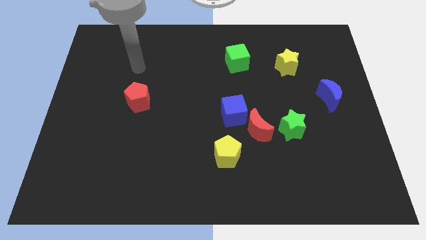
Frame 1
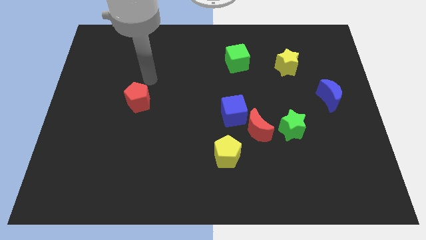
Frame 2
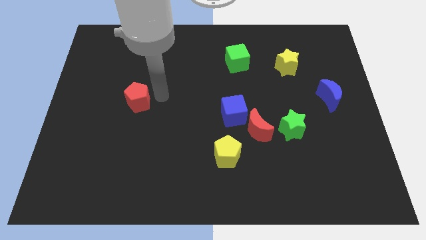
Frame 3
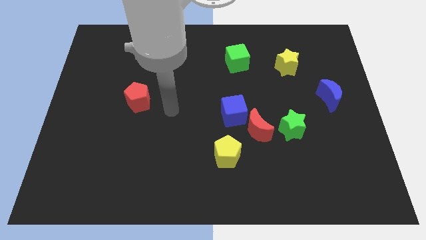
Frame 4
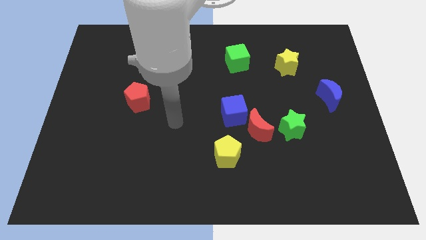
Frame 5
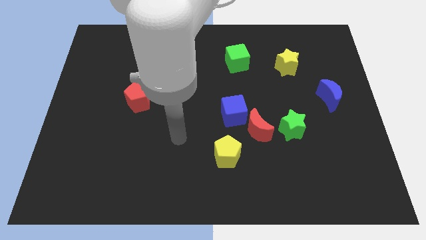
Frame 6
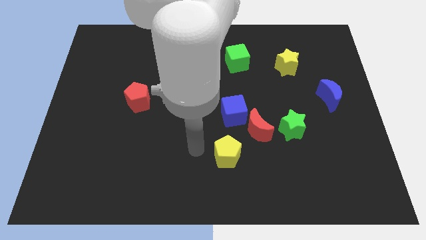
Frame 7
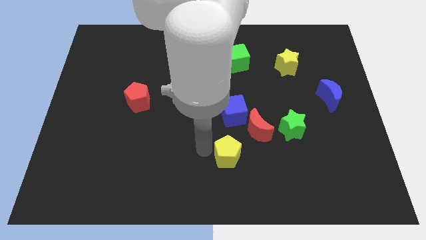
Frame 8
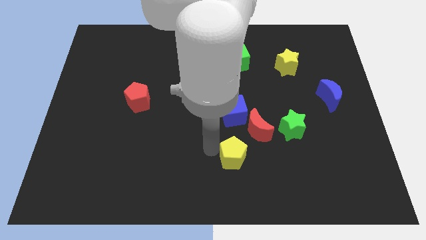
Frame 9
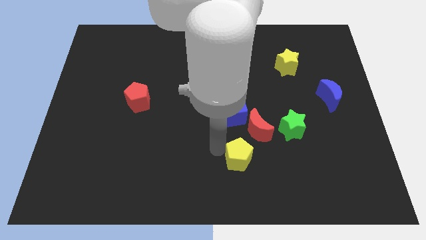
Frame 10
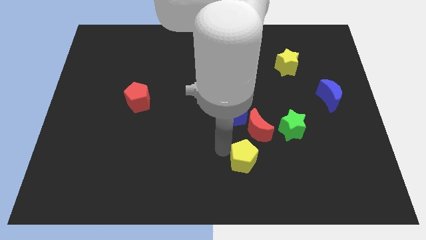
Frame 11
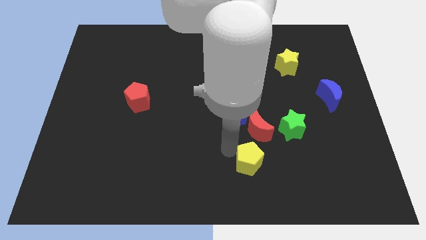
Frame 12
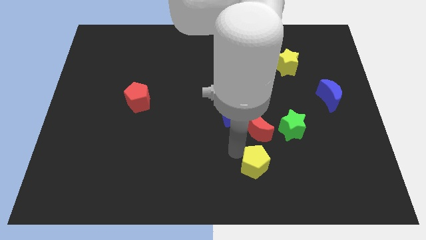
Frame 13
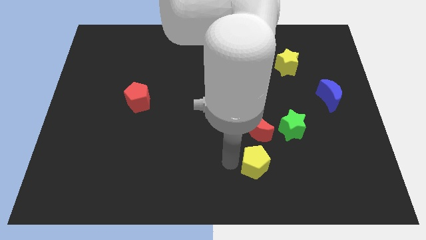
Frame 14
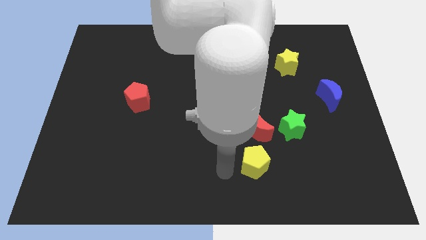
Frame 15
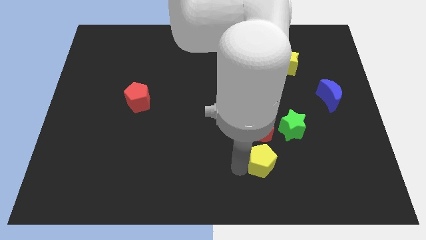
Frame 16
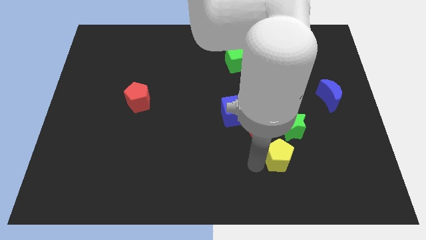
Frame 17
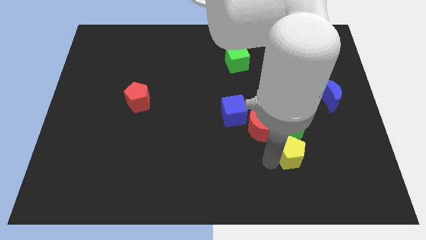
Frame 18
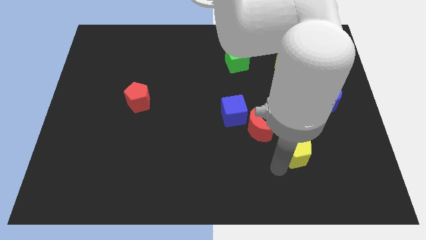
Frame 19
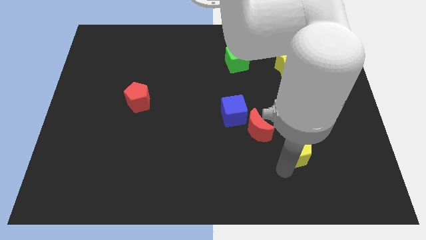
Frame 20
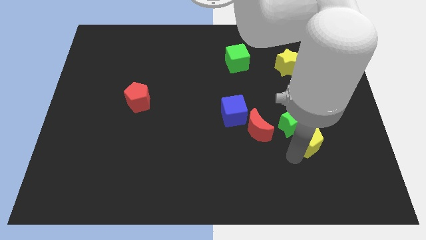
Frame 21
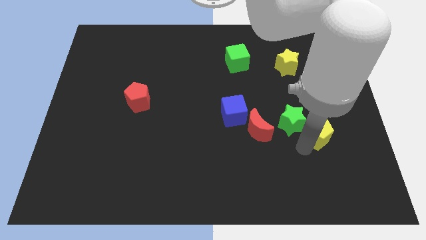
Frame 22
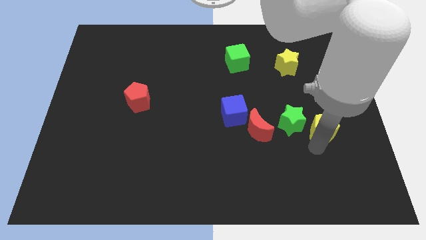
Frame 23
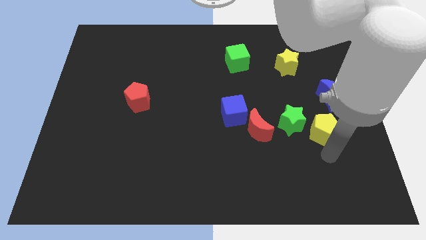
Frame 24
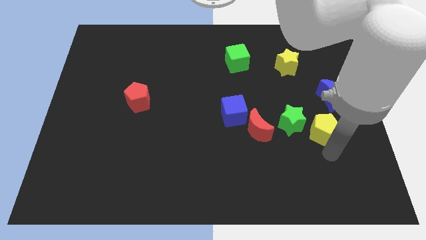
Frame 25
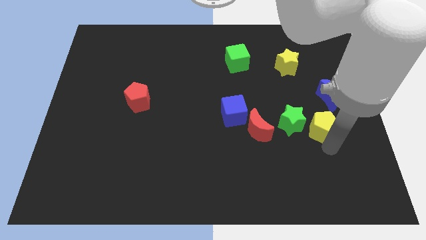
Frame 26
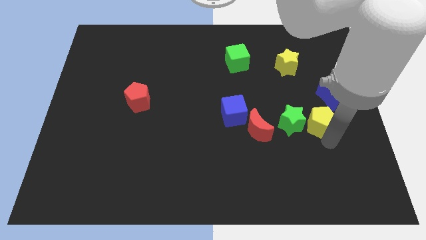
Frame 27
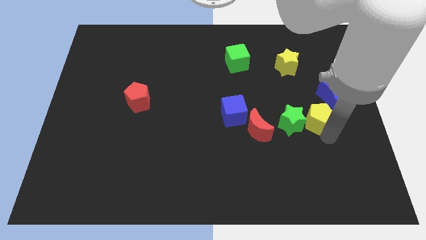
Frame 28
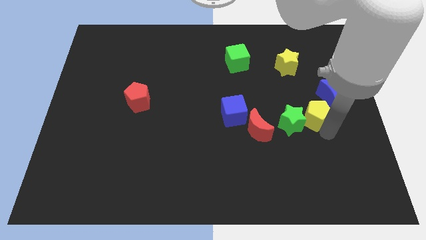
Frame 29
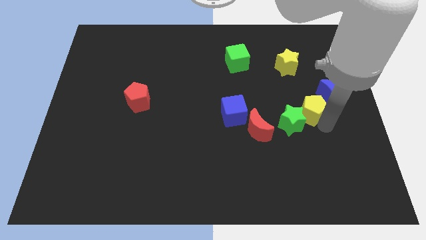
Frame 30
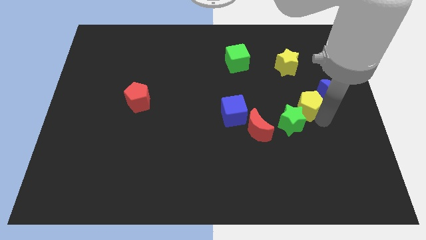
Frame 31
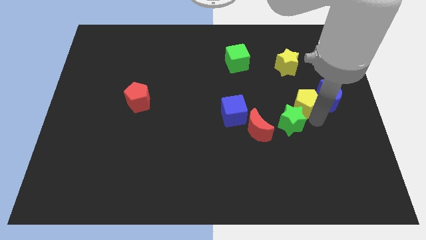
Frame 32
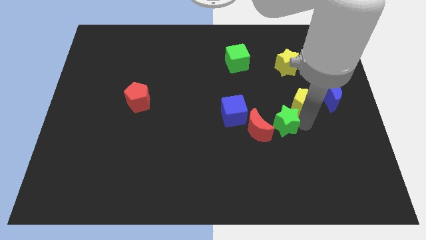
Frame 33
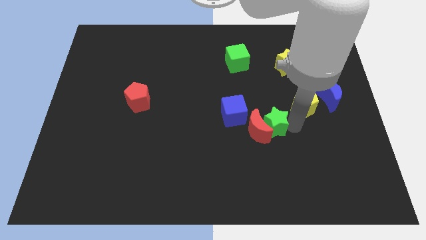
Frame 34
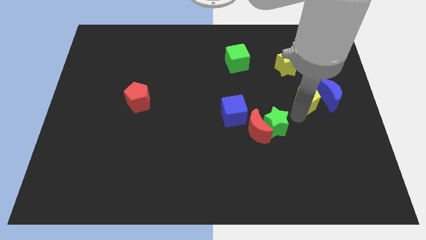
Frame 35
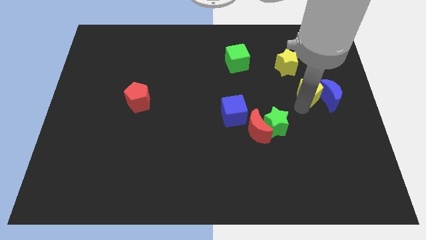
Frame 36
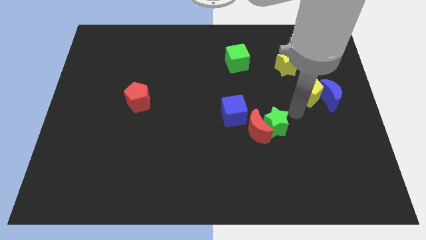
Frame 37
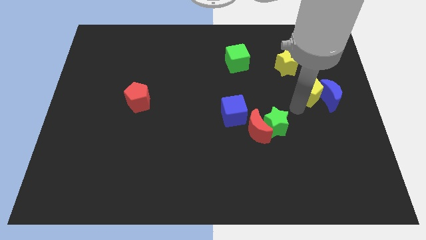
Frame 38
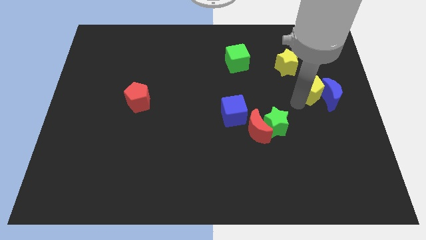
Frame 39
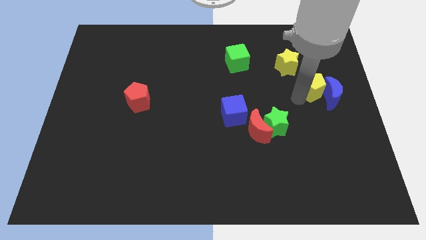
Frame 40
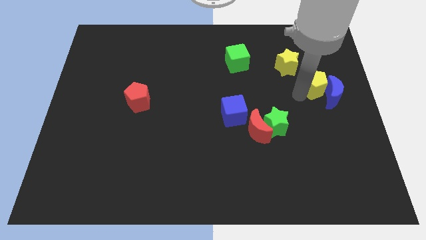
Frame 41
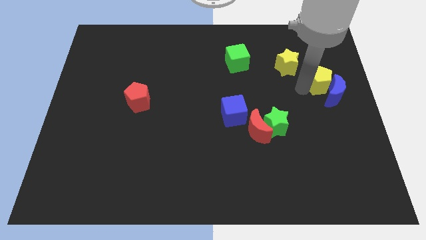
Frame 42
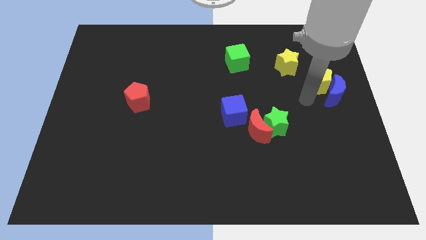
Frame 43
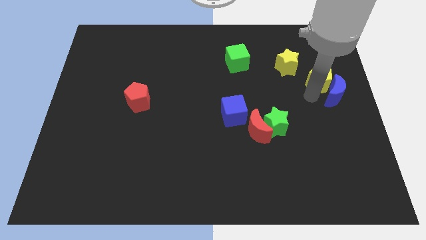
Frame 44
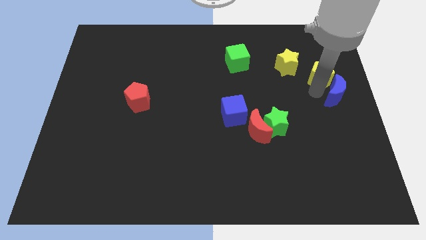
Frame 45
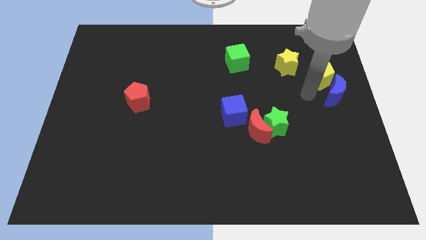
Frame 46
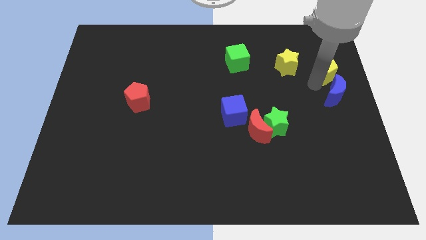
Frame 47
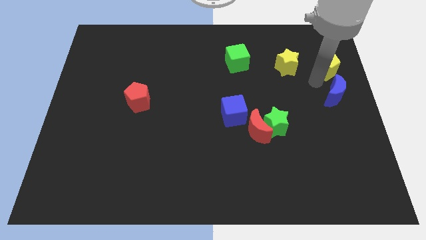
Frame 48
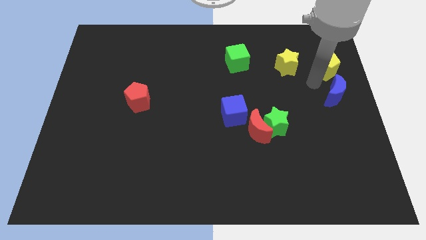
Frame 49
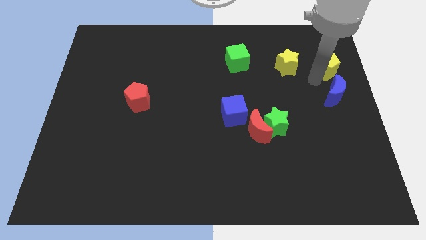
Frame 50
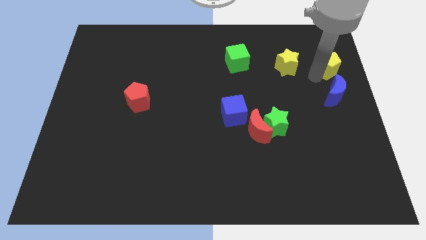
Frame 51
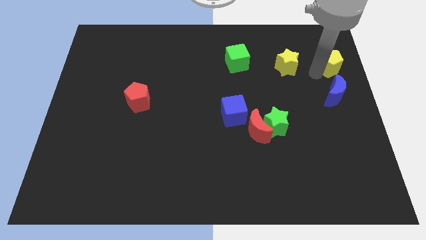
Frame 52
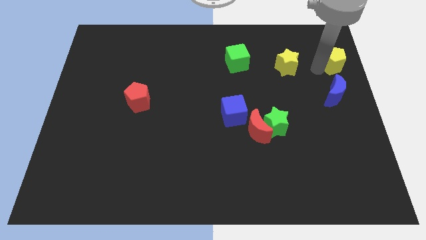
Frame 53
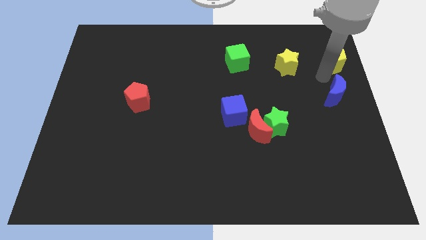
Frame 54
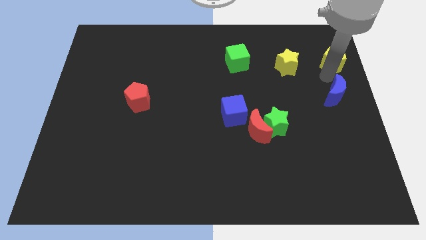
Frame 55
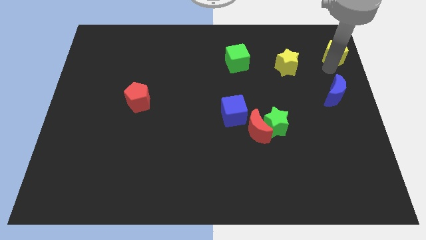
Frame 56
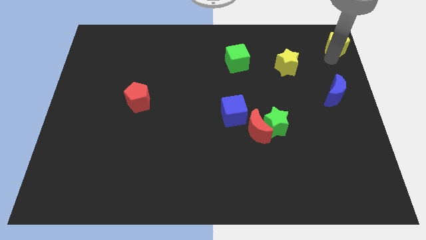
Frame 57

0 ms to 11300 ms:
slide the yellow pentagon to the top right of the board

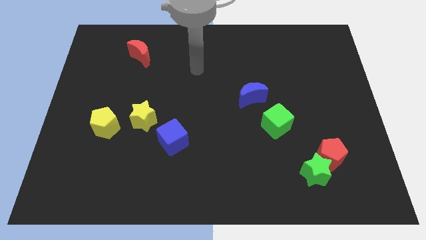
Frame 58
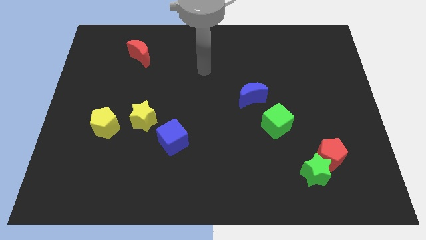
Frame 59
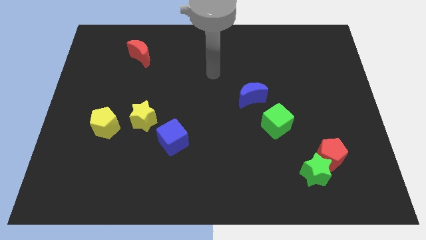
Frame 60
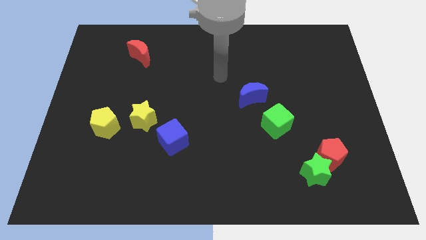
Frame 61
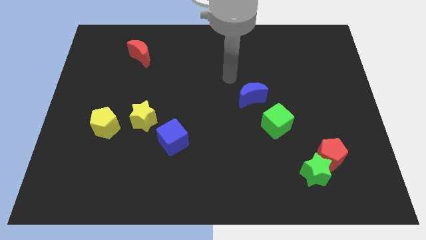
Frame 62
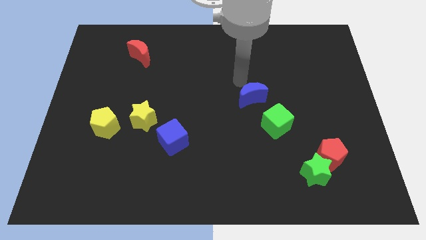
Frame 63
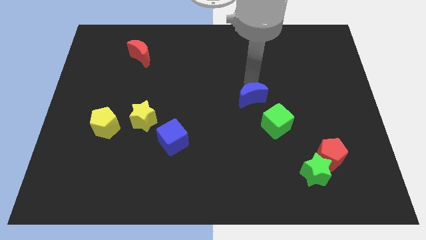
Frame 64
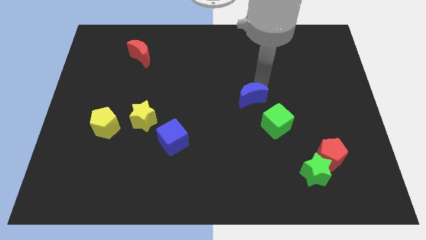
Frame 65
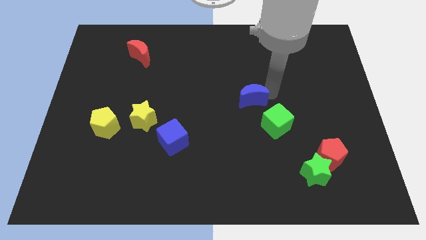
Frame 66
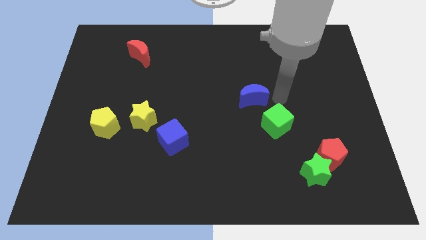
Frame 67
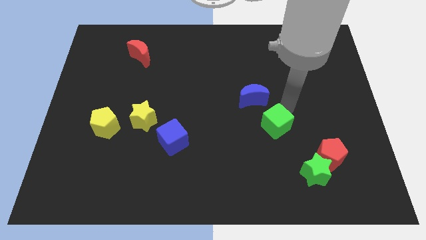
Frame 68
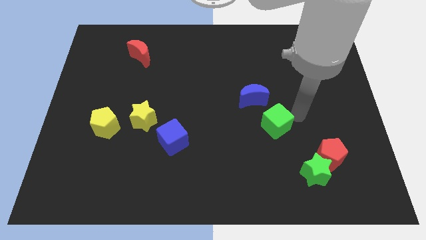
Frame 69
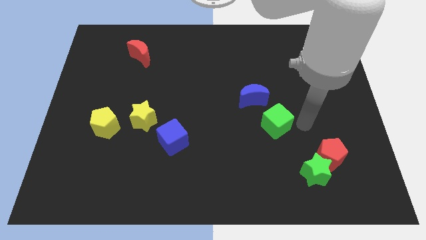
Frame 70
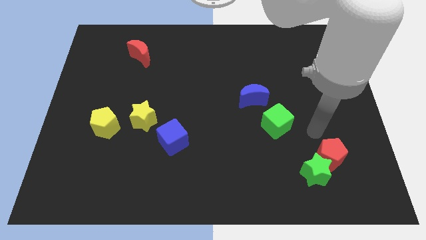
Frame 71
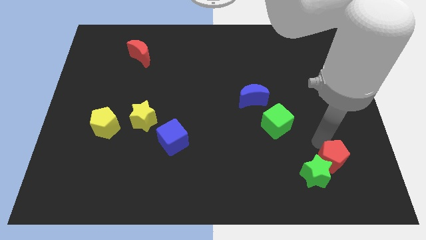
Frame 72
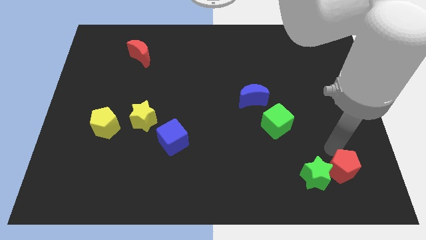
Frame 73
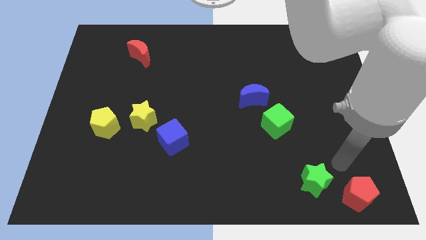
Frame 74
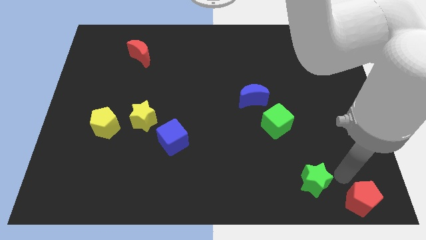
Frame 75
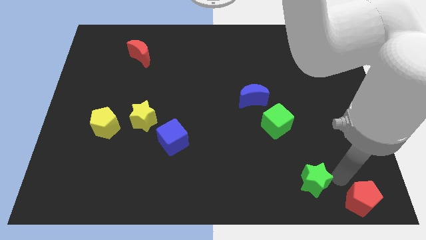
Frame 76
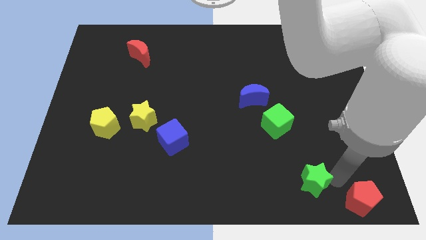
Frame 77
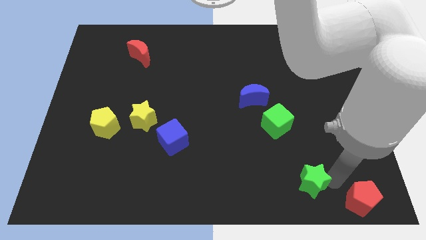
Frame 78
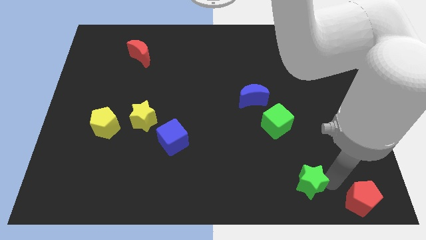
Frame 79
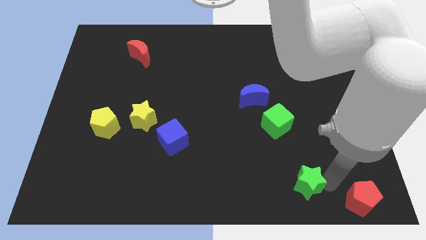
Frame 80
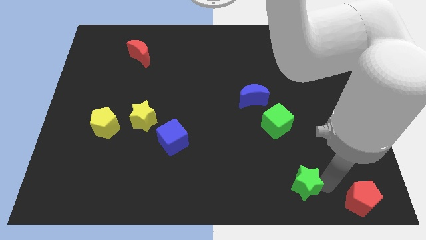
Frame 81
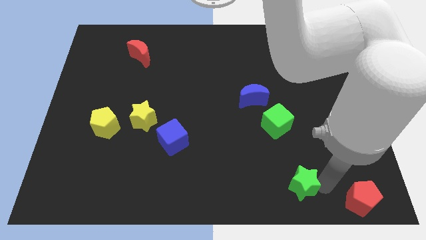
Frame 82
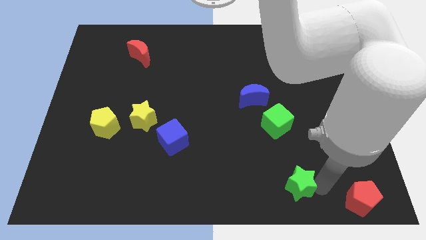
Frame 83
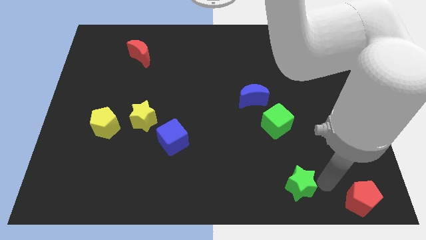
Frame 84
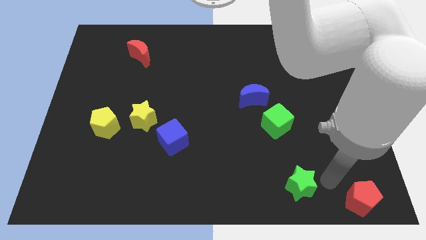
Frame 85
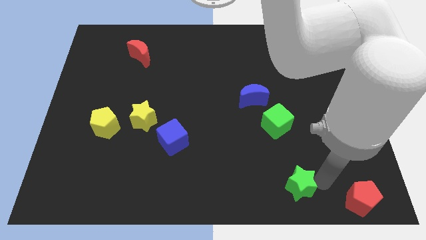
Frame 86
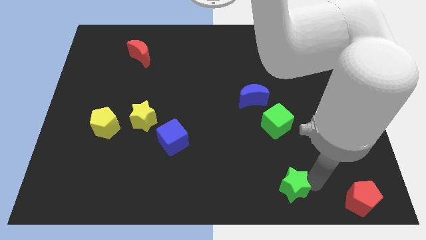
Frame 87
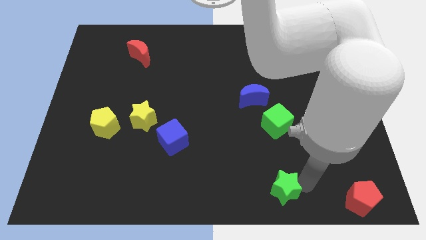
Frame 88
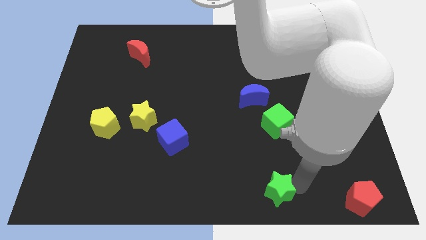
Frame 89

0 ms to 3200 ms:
slide the green star to the bottom side
